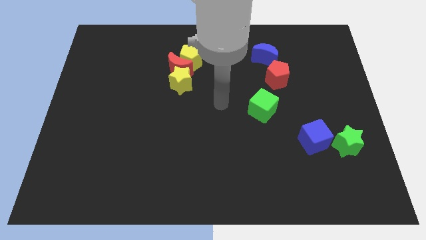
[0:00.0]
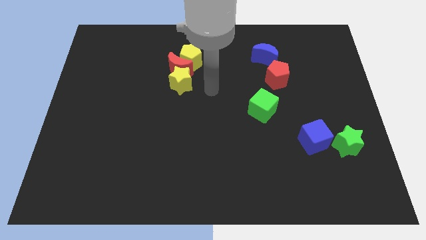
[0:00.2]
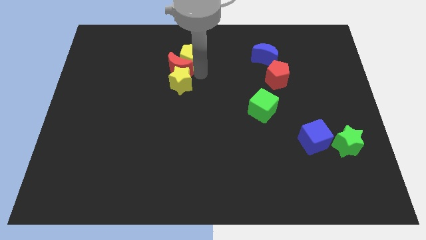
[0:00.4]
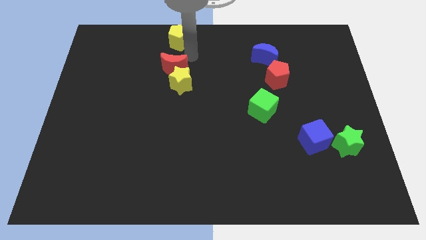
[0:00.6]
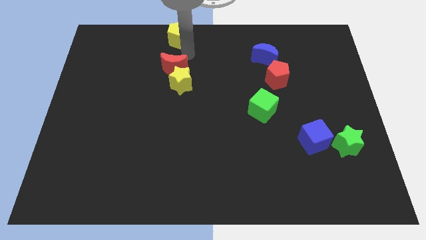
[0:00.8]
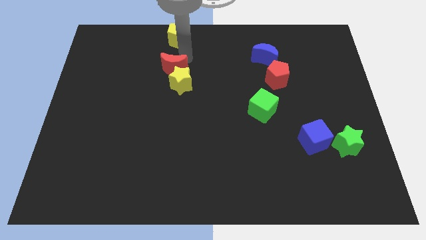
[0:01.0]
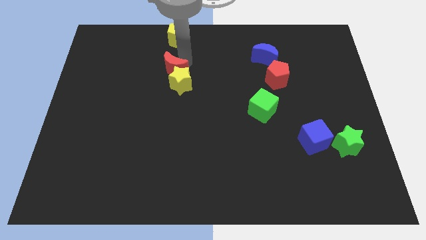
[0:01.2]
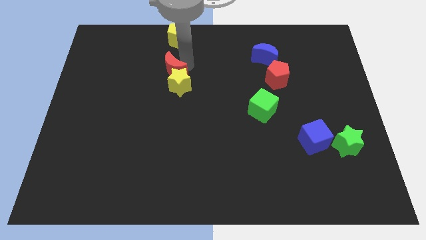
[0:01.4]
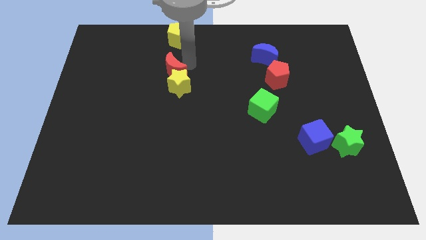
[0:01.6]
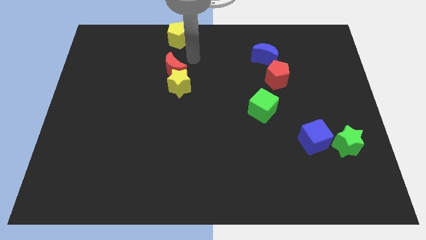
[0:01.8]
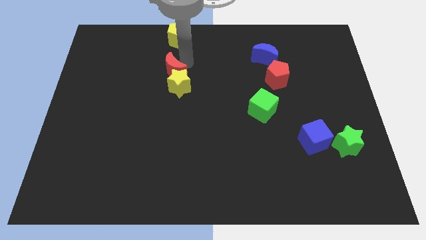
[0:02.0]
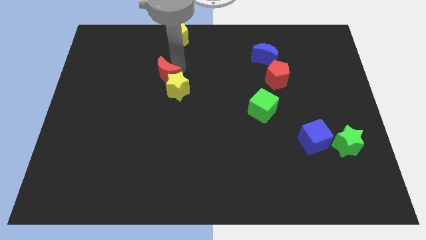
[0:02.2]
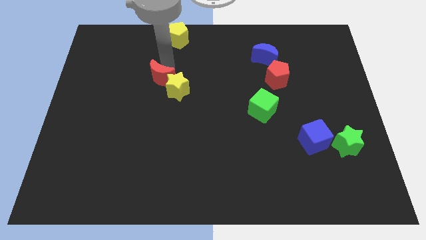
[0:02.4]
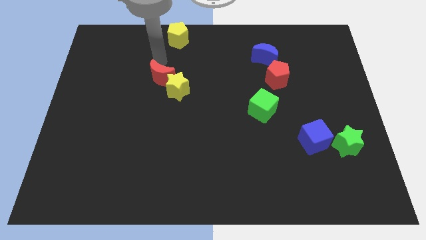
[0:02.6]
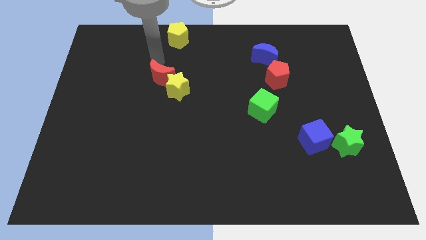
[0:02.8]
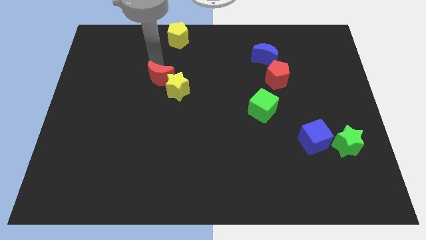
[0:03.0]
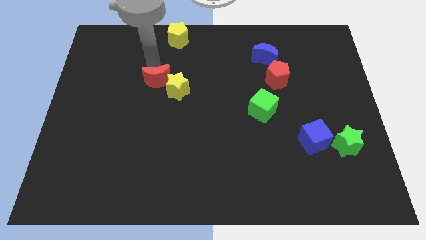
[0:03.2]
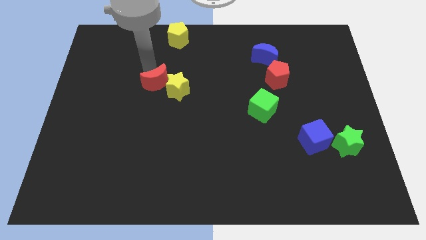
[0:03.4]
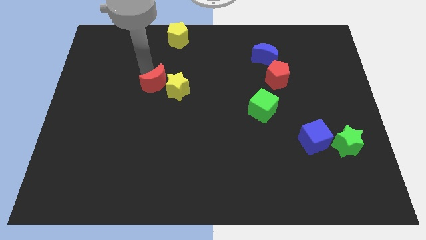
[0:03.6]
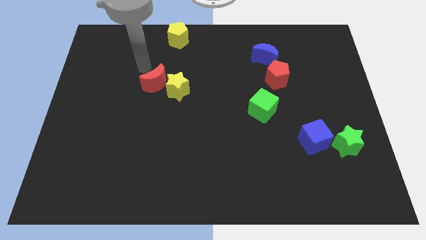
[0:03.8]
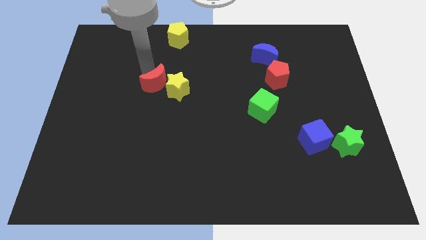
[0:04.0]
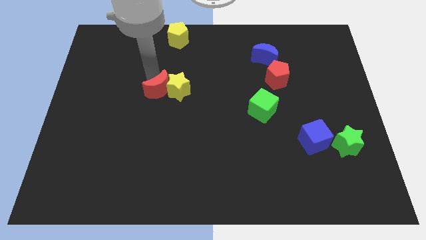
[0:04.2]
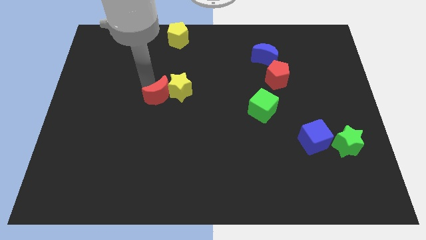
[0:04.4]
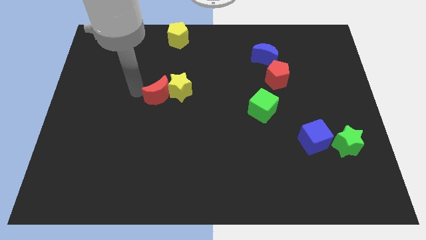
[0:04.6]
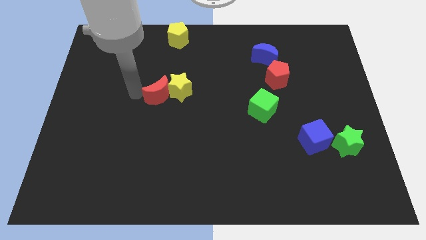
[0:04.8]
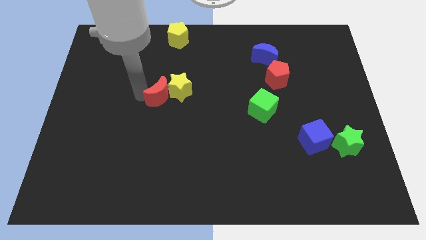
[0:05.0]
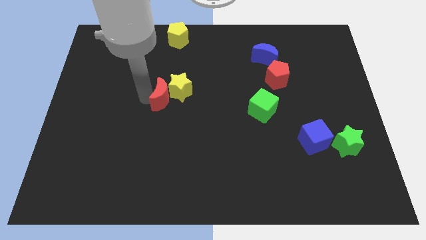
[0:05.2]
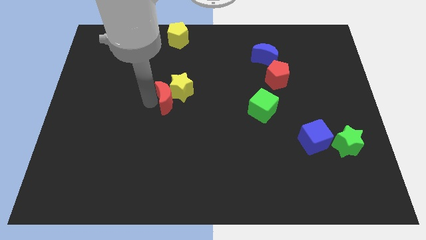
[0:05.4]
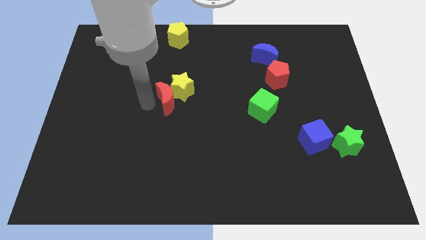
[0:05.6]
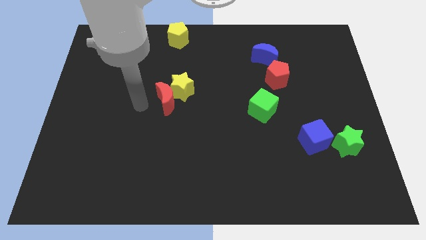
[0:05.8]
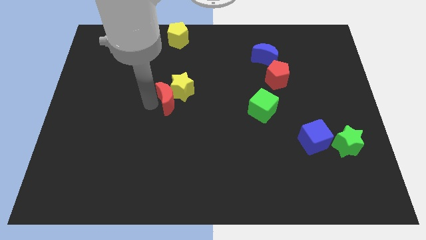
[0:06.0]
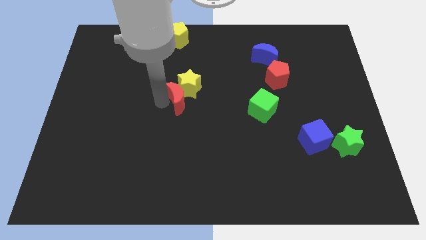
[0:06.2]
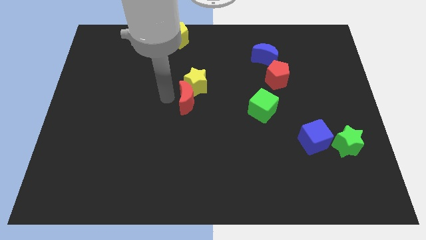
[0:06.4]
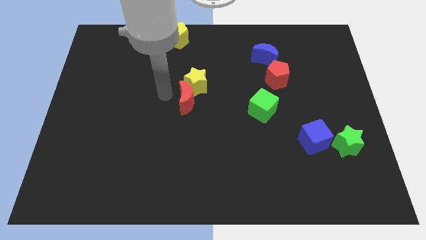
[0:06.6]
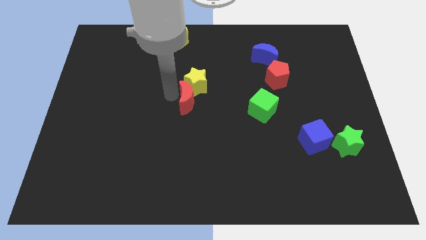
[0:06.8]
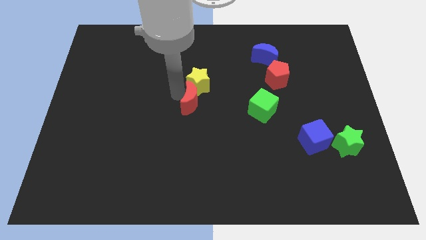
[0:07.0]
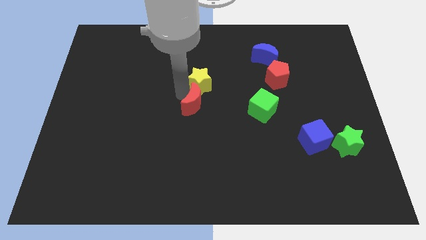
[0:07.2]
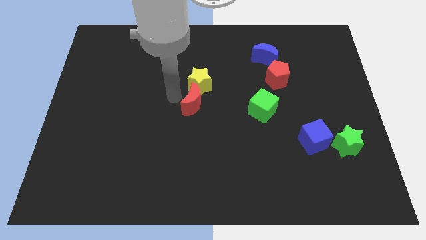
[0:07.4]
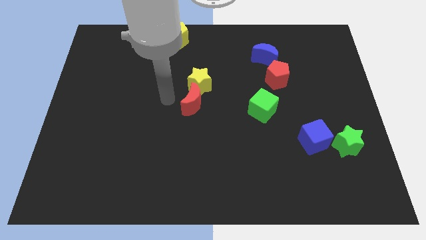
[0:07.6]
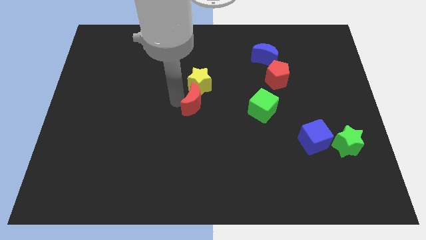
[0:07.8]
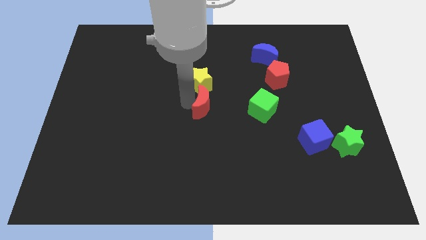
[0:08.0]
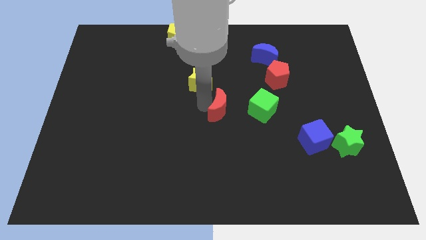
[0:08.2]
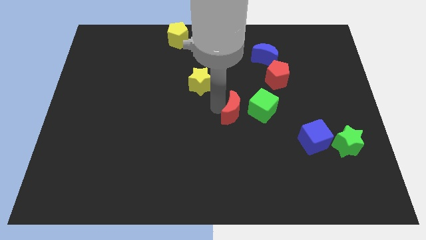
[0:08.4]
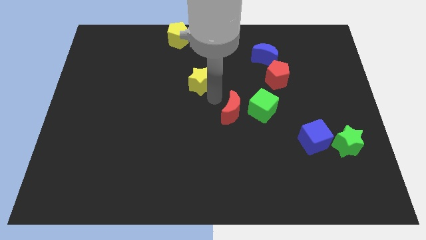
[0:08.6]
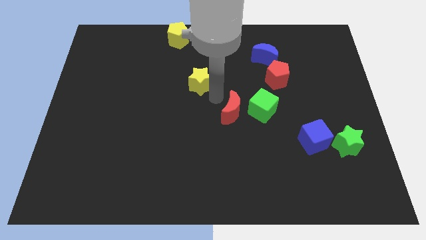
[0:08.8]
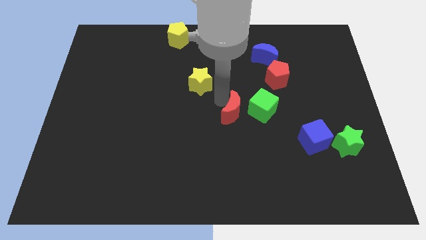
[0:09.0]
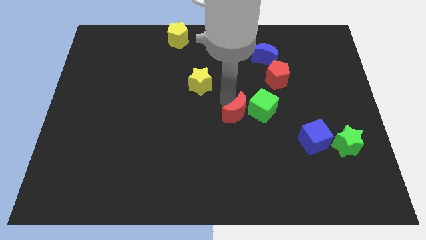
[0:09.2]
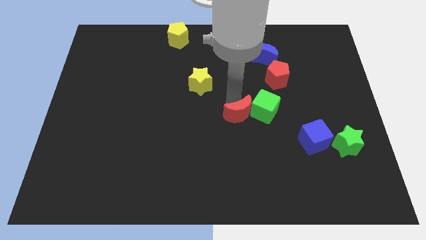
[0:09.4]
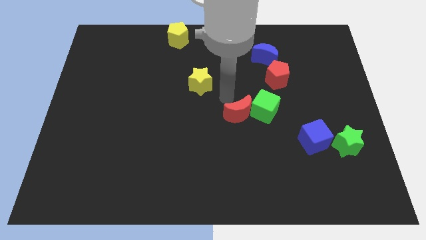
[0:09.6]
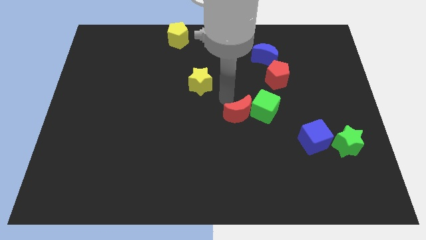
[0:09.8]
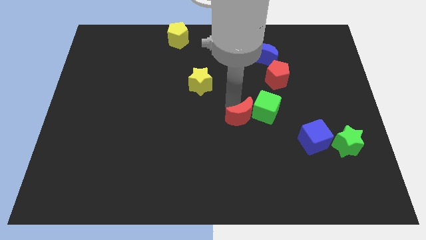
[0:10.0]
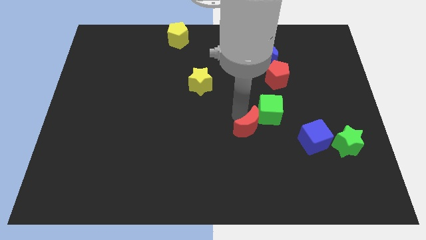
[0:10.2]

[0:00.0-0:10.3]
put the red moon to the left side of the blue cube

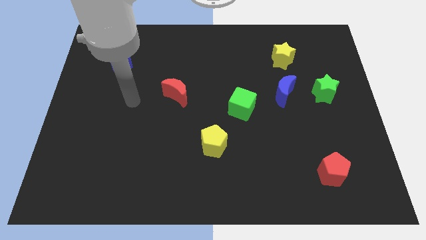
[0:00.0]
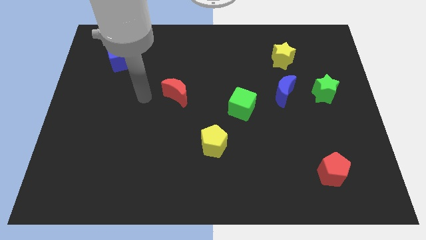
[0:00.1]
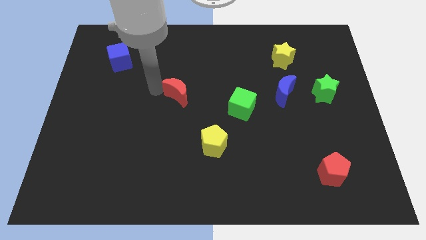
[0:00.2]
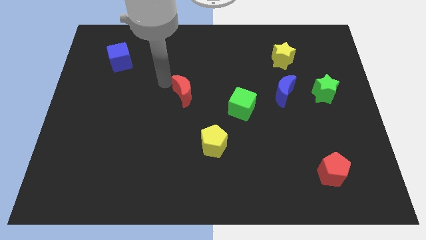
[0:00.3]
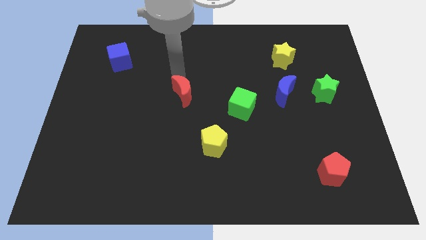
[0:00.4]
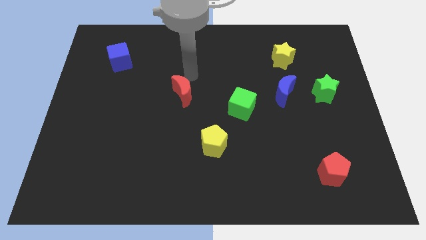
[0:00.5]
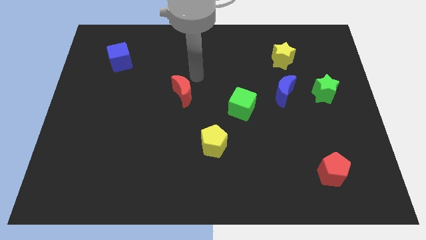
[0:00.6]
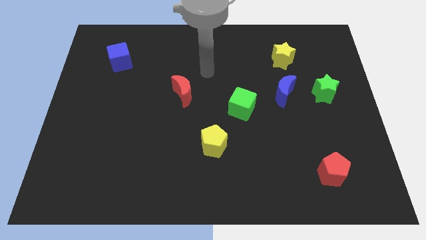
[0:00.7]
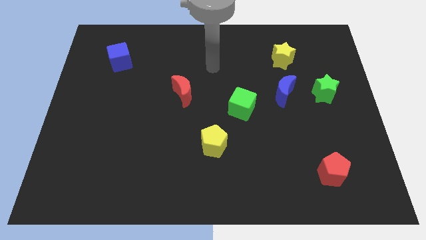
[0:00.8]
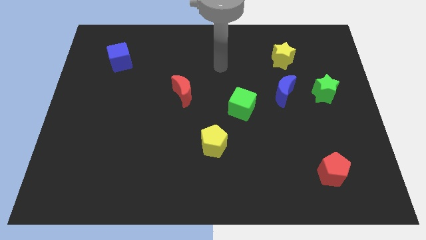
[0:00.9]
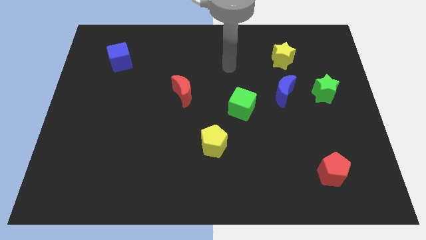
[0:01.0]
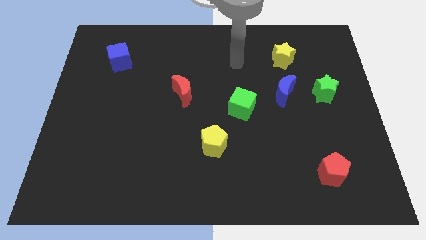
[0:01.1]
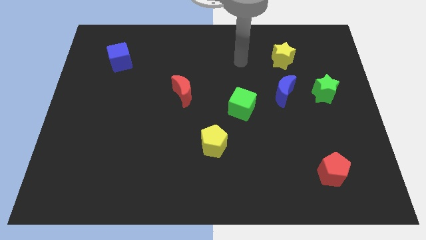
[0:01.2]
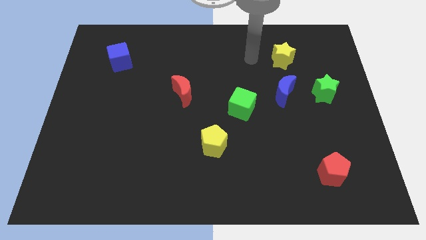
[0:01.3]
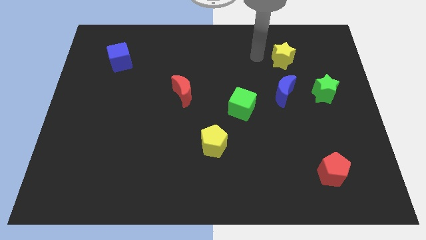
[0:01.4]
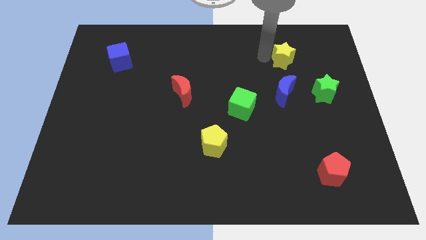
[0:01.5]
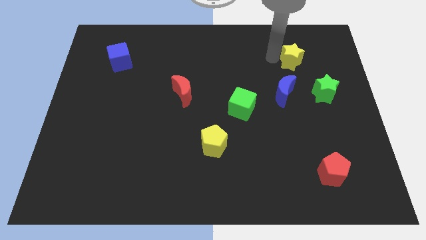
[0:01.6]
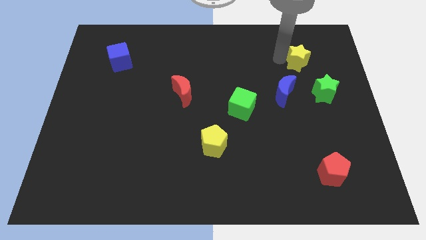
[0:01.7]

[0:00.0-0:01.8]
move the yellow star to the top side of the green star
